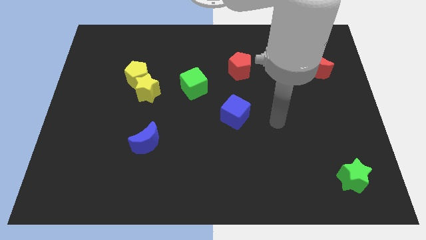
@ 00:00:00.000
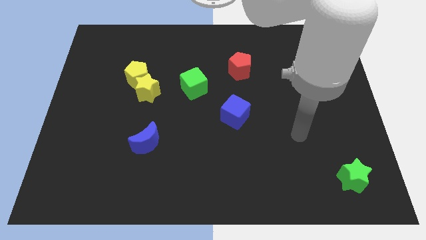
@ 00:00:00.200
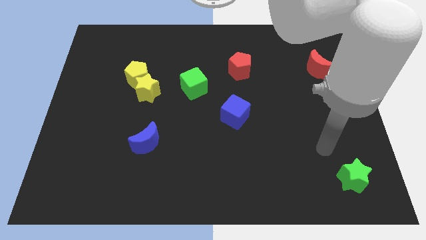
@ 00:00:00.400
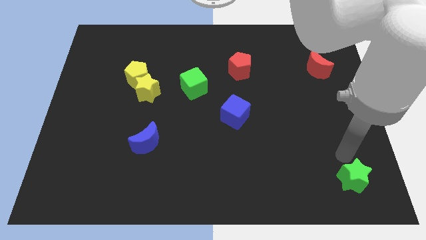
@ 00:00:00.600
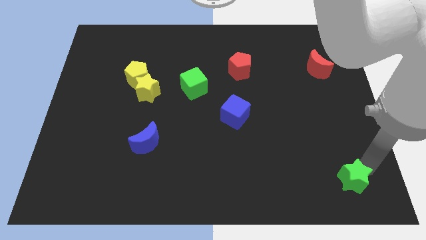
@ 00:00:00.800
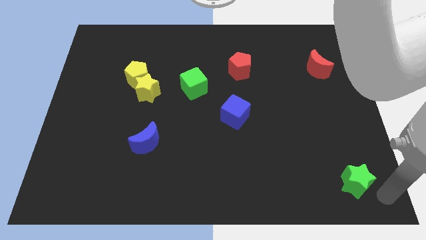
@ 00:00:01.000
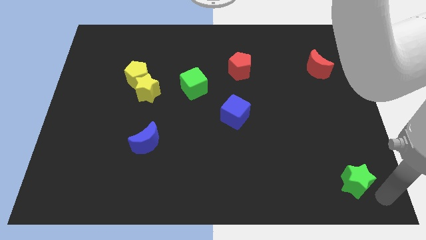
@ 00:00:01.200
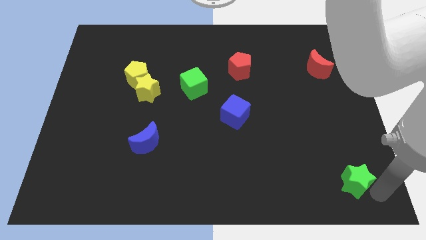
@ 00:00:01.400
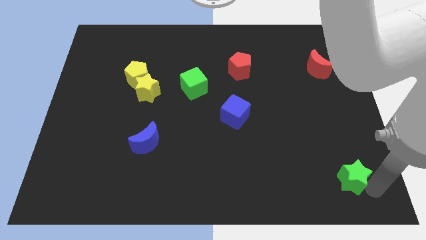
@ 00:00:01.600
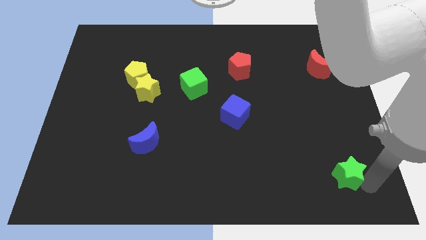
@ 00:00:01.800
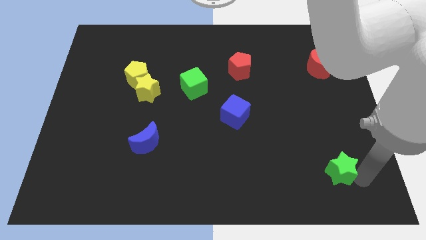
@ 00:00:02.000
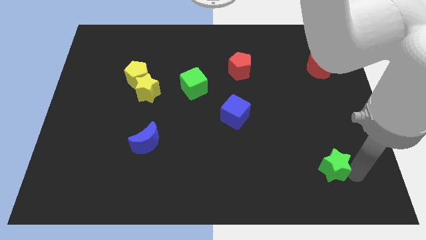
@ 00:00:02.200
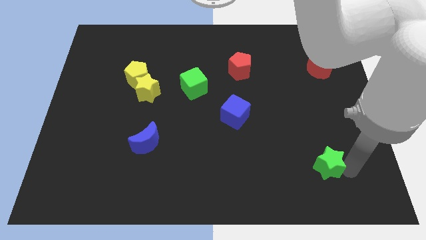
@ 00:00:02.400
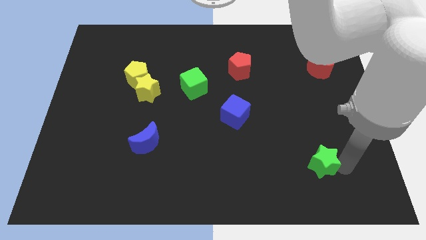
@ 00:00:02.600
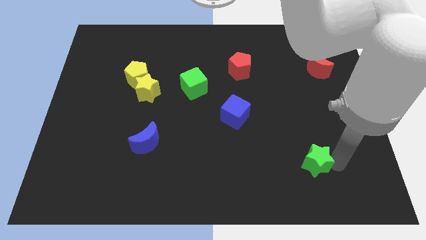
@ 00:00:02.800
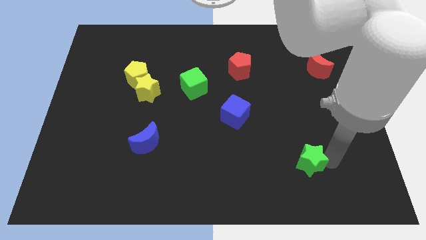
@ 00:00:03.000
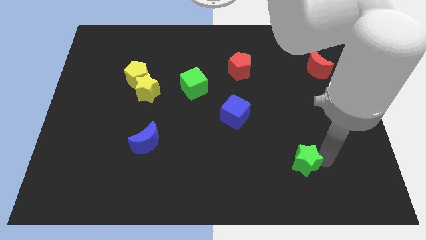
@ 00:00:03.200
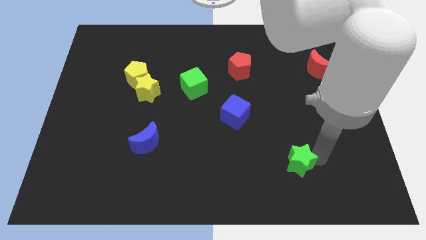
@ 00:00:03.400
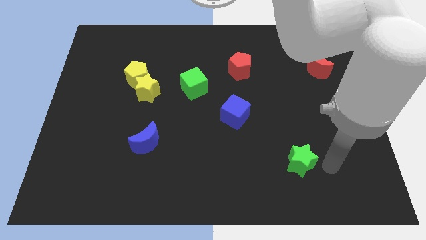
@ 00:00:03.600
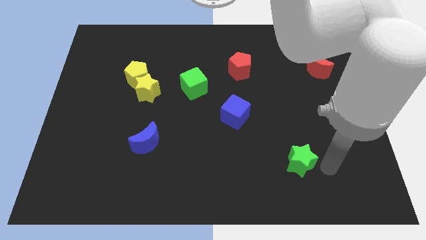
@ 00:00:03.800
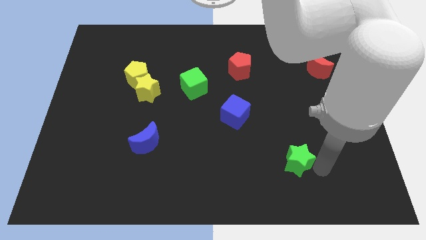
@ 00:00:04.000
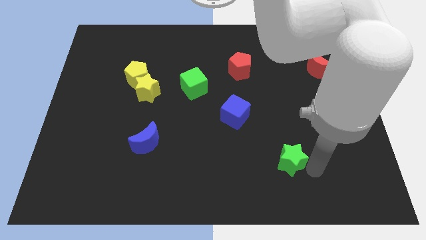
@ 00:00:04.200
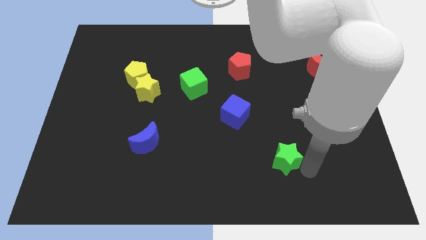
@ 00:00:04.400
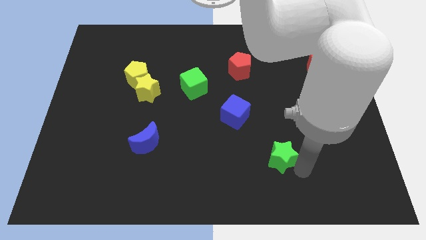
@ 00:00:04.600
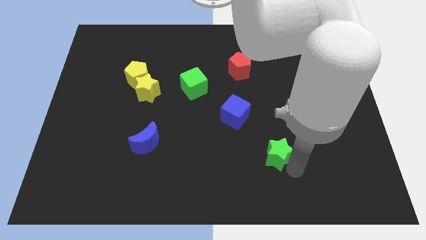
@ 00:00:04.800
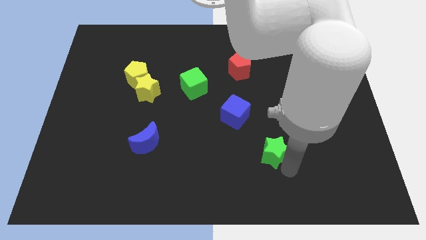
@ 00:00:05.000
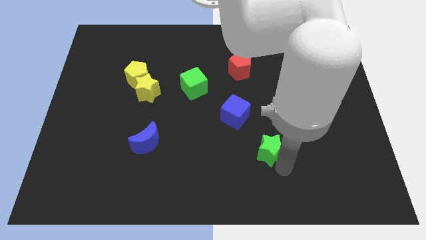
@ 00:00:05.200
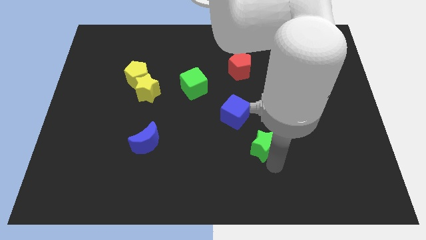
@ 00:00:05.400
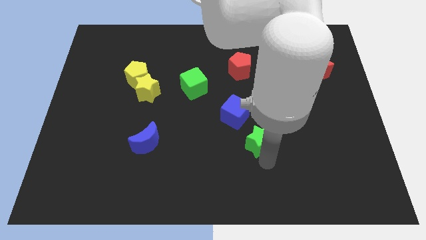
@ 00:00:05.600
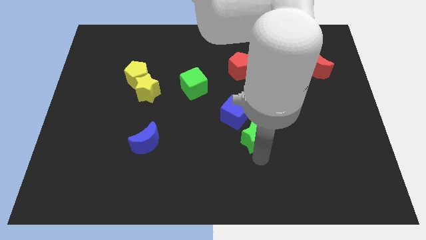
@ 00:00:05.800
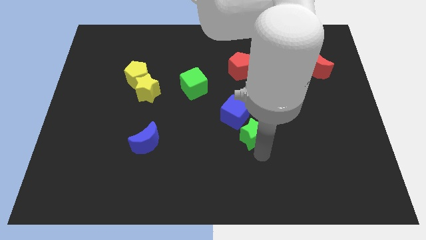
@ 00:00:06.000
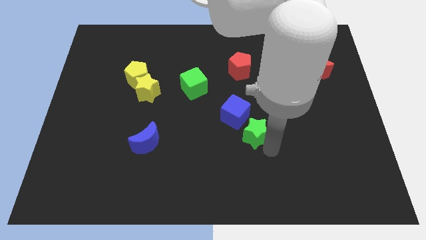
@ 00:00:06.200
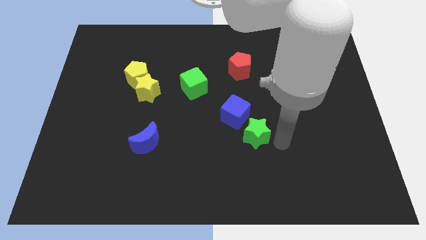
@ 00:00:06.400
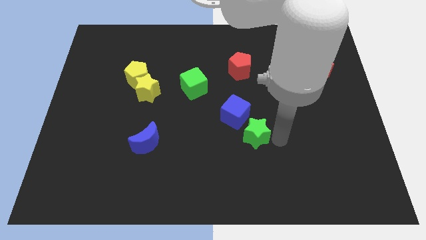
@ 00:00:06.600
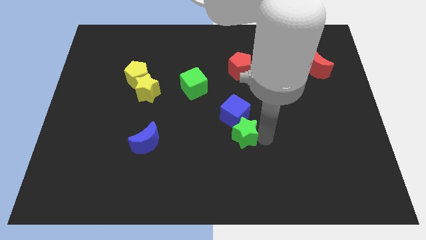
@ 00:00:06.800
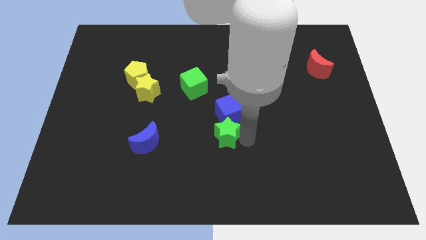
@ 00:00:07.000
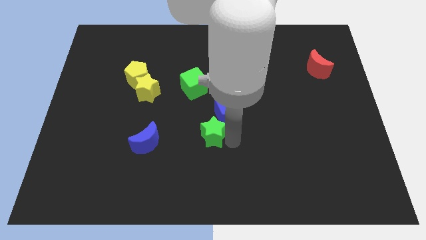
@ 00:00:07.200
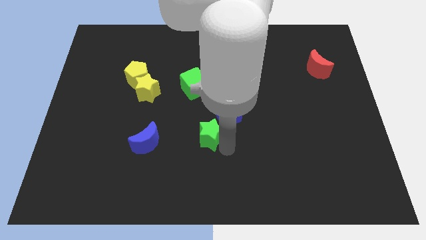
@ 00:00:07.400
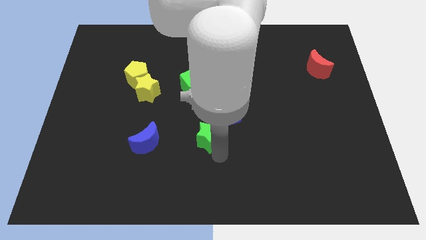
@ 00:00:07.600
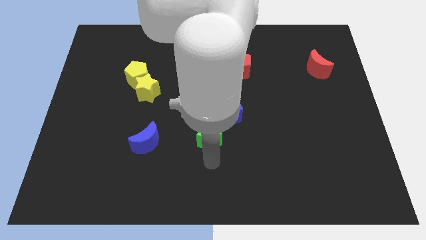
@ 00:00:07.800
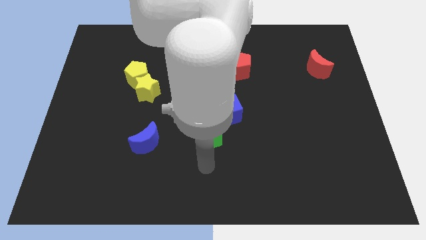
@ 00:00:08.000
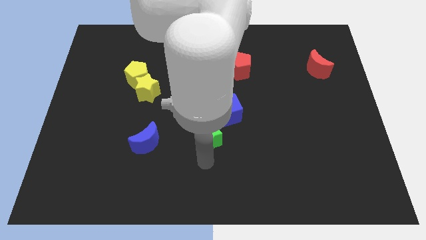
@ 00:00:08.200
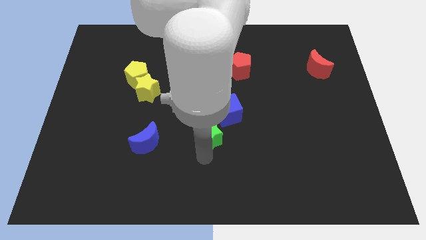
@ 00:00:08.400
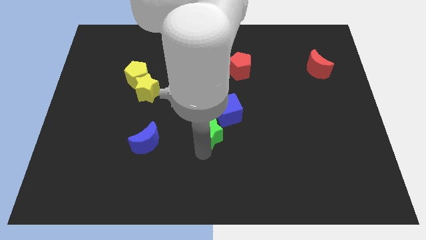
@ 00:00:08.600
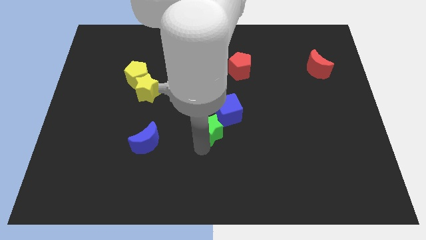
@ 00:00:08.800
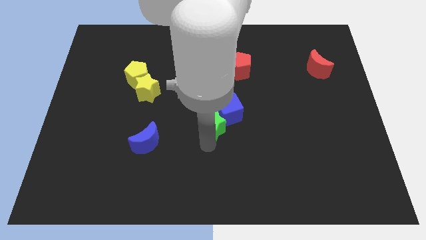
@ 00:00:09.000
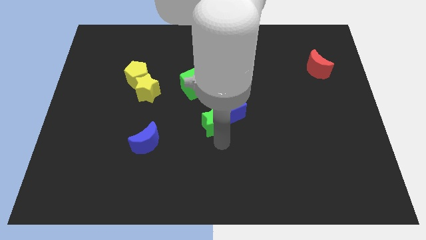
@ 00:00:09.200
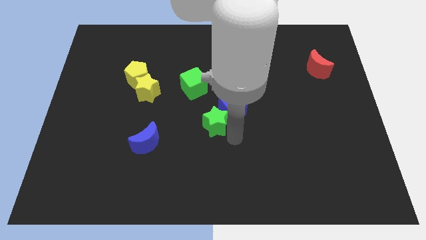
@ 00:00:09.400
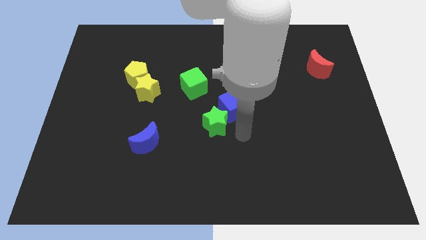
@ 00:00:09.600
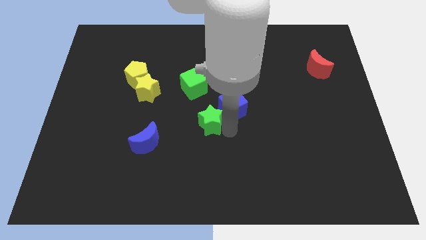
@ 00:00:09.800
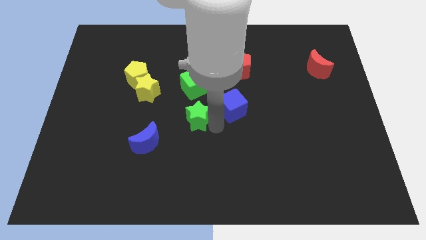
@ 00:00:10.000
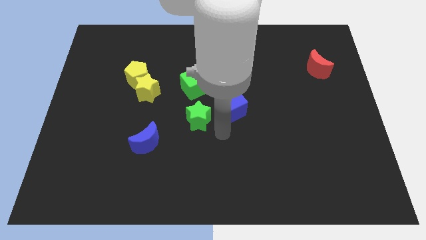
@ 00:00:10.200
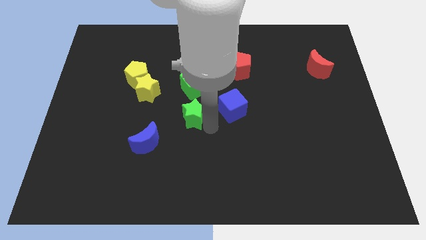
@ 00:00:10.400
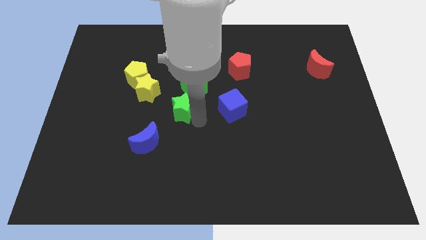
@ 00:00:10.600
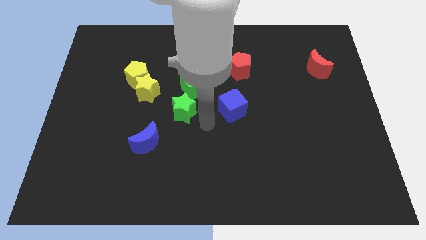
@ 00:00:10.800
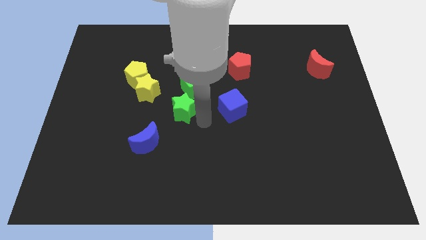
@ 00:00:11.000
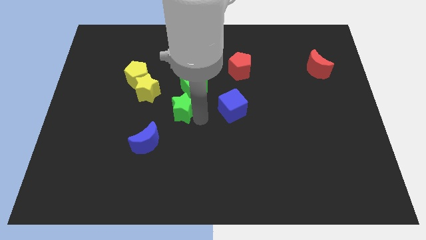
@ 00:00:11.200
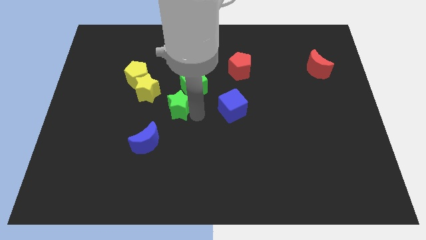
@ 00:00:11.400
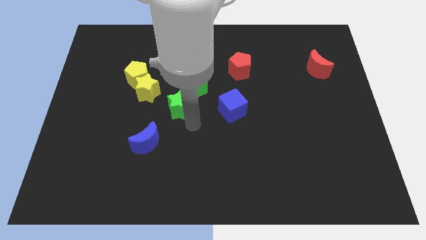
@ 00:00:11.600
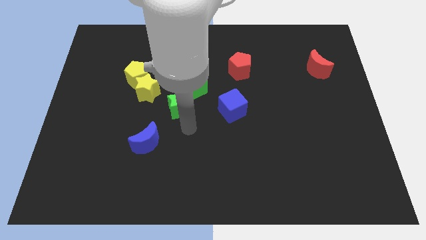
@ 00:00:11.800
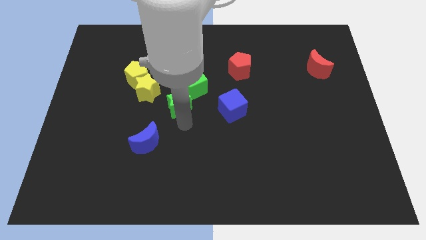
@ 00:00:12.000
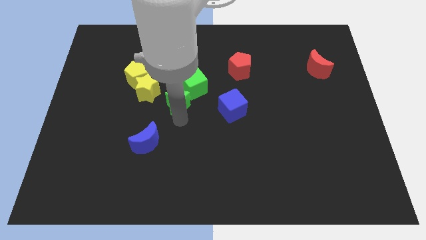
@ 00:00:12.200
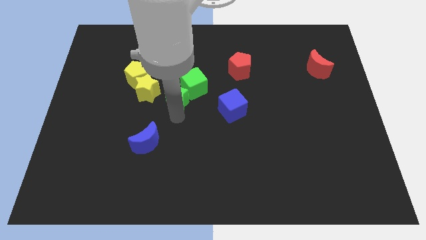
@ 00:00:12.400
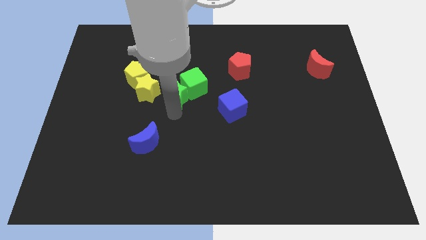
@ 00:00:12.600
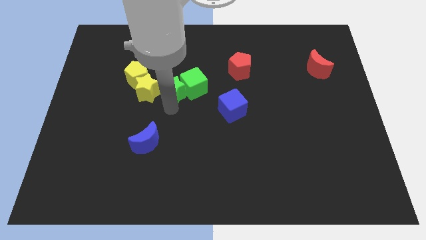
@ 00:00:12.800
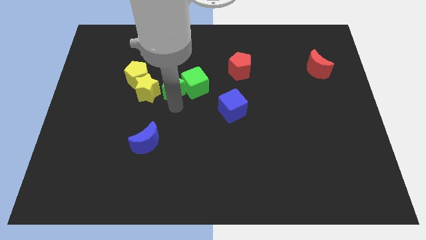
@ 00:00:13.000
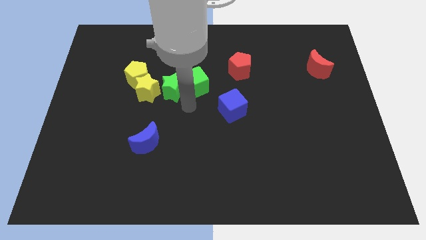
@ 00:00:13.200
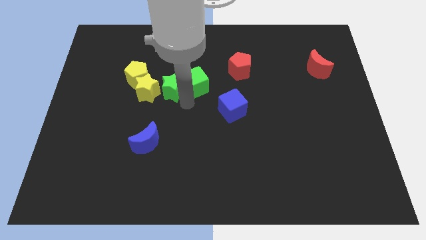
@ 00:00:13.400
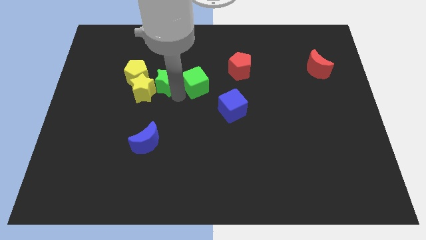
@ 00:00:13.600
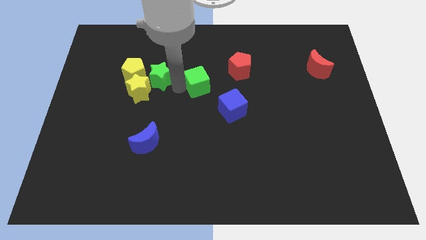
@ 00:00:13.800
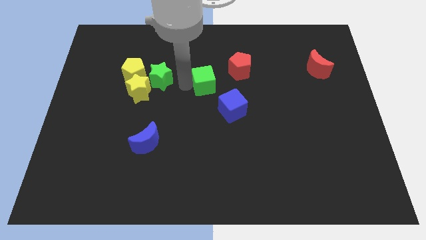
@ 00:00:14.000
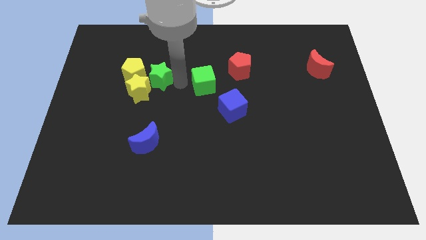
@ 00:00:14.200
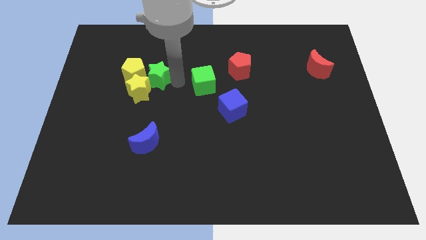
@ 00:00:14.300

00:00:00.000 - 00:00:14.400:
put the green star to the yellow pentagon
